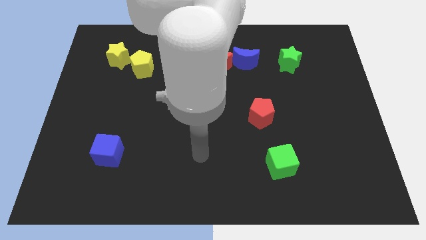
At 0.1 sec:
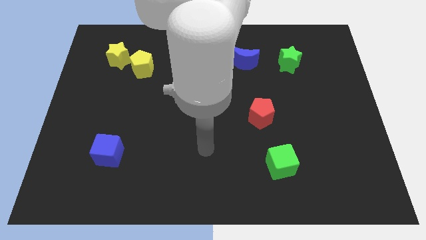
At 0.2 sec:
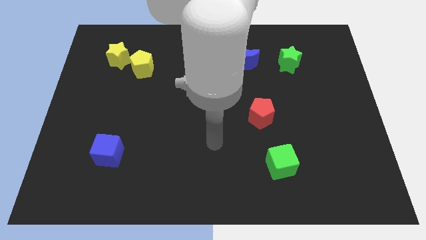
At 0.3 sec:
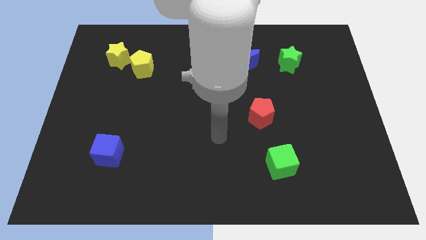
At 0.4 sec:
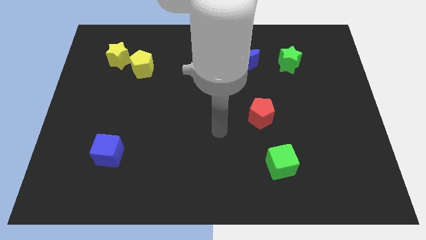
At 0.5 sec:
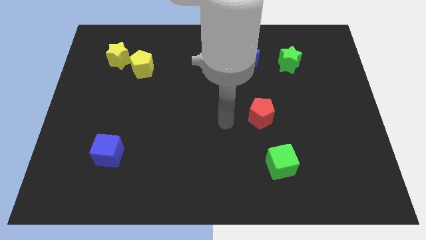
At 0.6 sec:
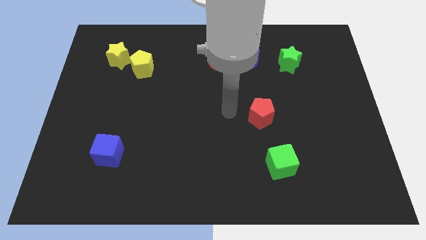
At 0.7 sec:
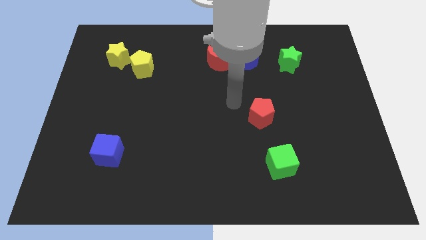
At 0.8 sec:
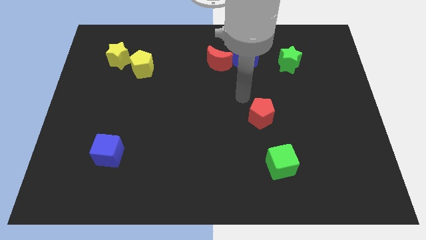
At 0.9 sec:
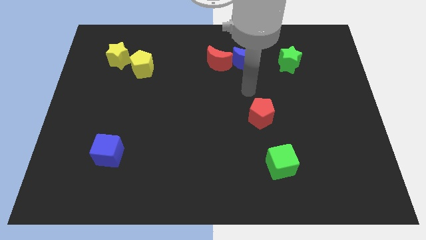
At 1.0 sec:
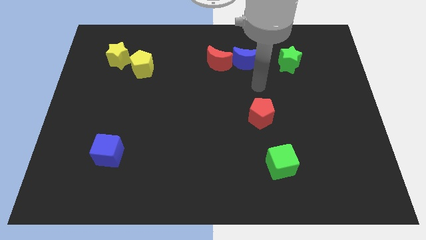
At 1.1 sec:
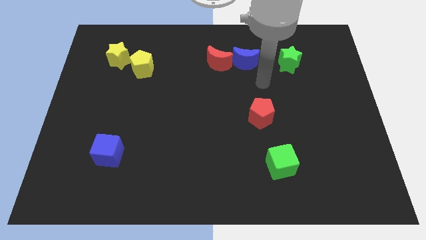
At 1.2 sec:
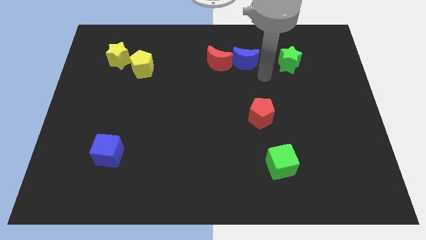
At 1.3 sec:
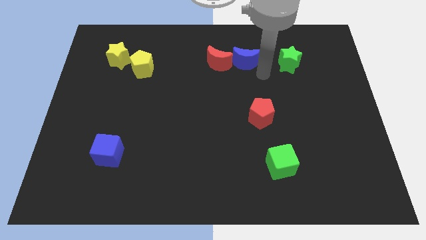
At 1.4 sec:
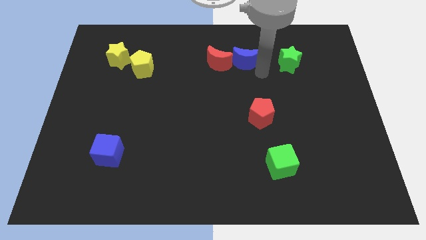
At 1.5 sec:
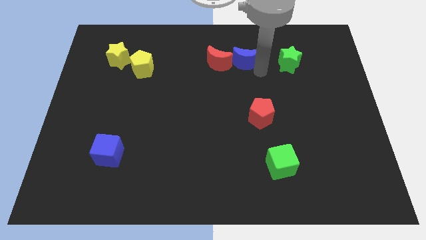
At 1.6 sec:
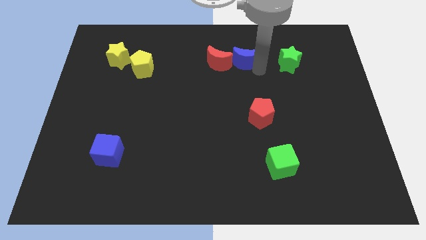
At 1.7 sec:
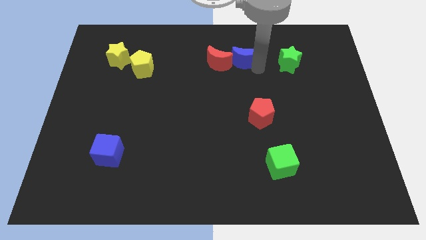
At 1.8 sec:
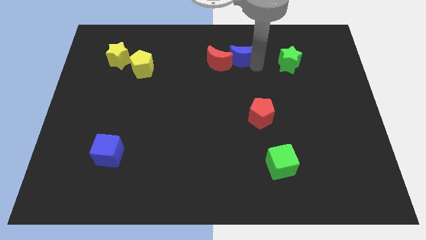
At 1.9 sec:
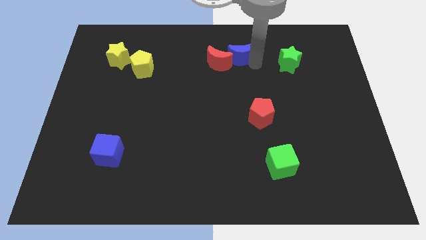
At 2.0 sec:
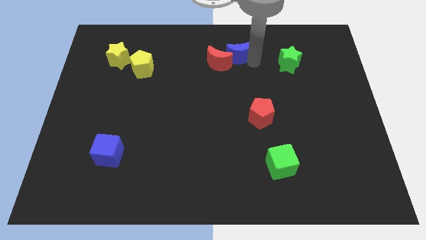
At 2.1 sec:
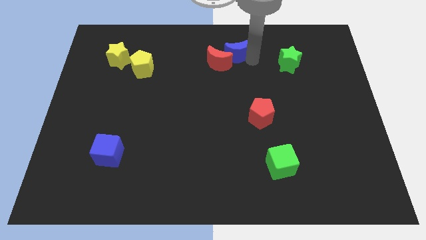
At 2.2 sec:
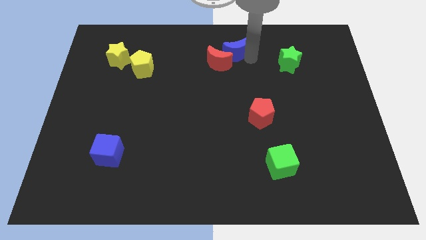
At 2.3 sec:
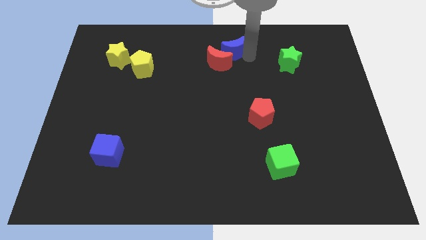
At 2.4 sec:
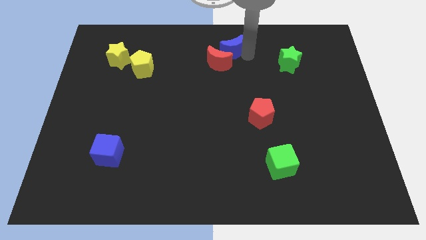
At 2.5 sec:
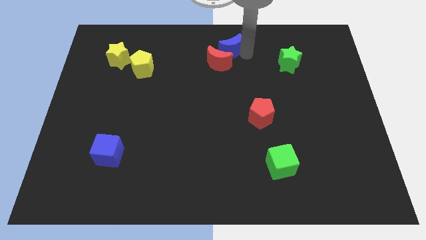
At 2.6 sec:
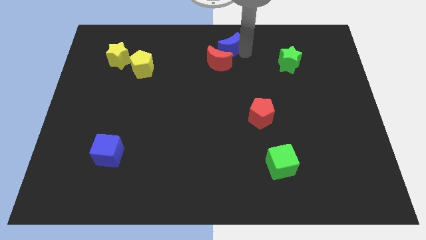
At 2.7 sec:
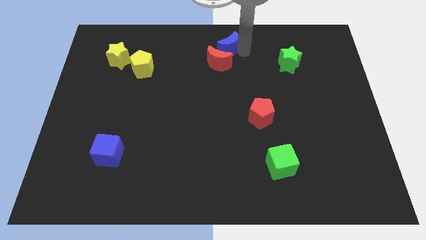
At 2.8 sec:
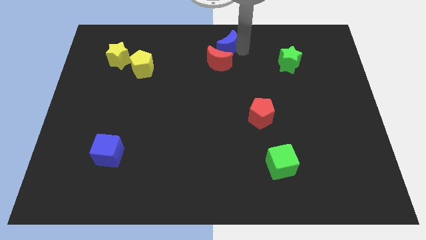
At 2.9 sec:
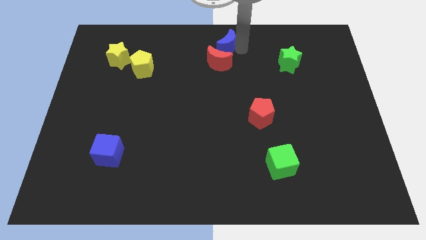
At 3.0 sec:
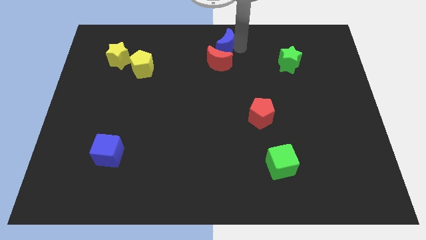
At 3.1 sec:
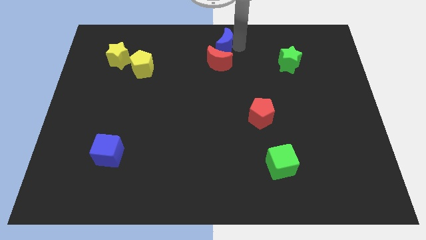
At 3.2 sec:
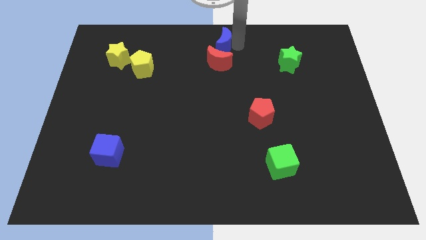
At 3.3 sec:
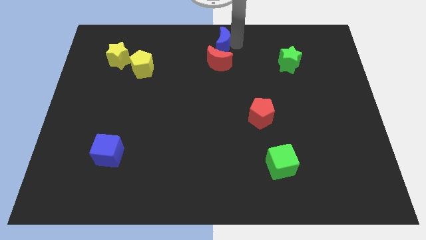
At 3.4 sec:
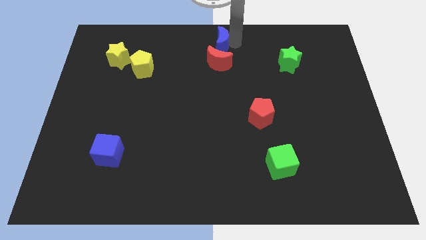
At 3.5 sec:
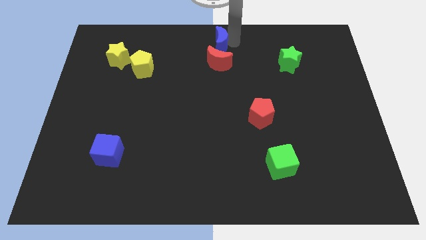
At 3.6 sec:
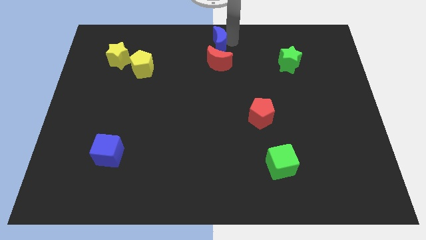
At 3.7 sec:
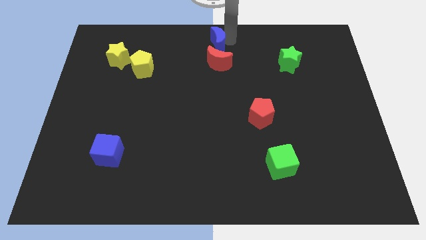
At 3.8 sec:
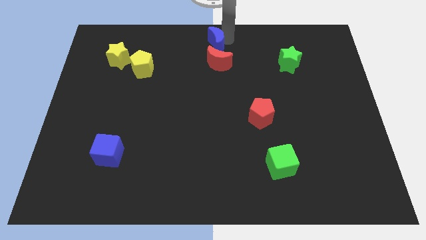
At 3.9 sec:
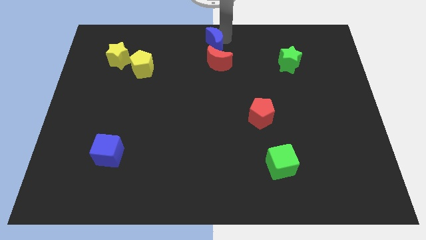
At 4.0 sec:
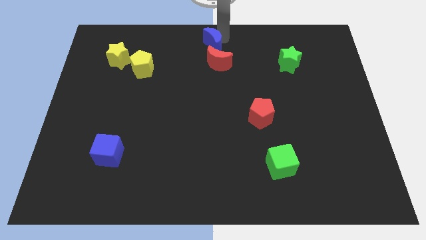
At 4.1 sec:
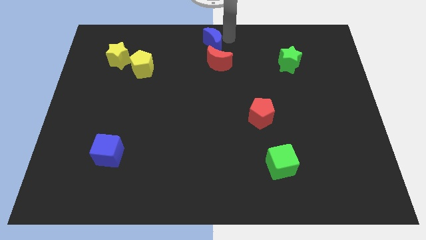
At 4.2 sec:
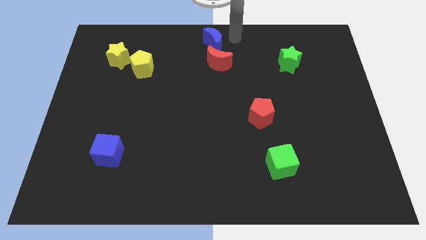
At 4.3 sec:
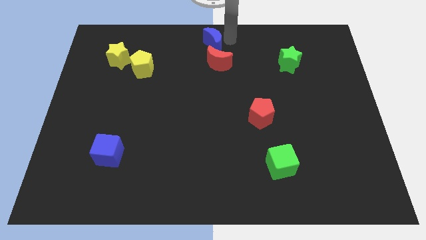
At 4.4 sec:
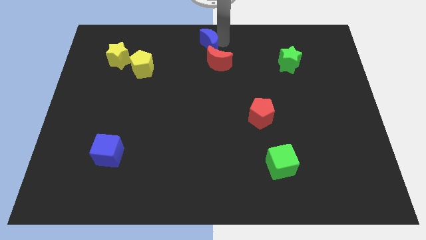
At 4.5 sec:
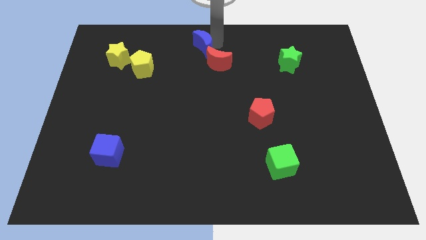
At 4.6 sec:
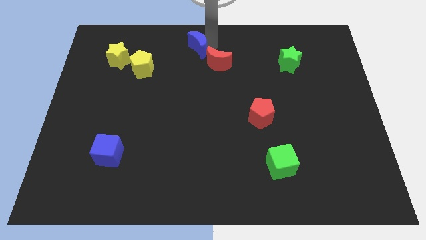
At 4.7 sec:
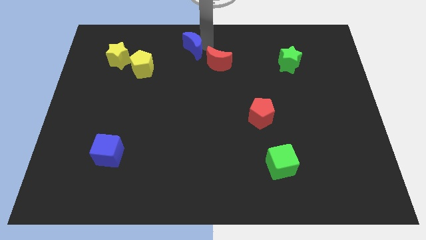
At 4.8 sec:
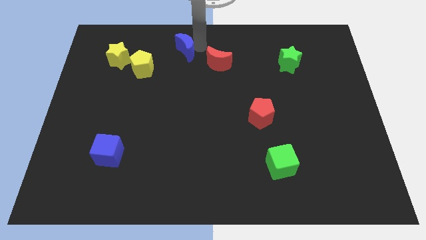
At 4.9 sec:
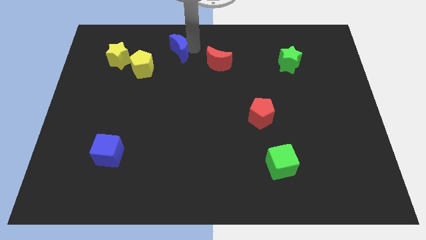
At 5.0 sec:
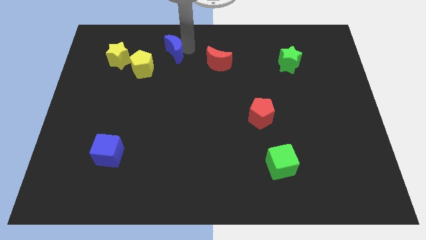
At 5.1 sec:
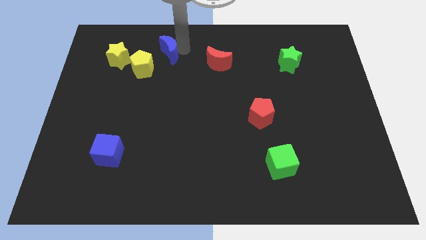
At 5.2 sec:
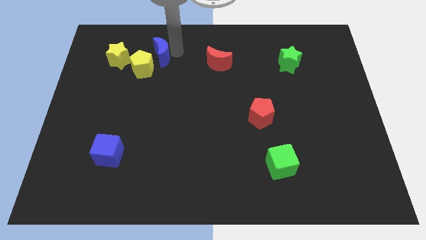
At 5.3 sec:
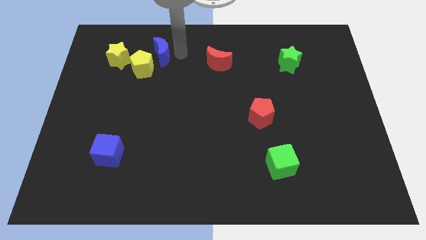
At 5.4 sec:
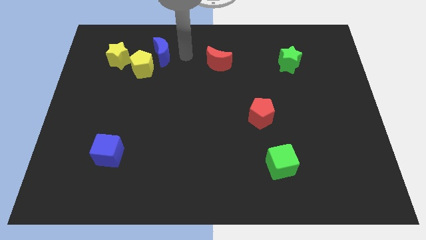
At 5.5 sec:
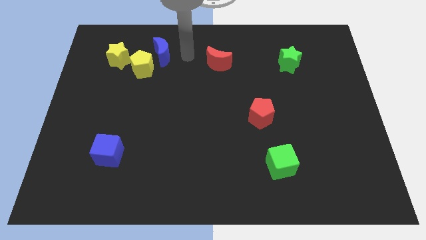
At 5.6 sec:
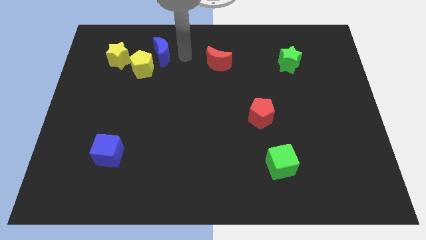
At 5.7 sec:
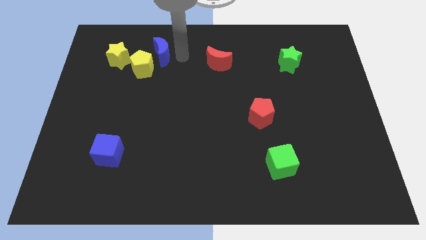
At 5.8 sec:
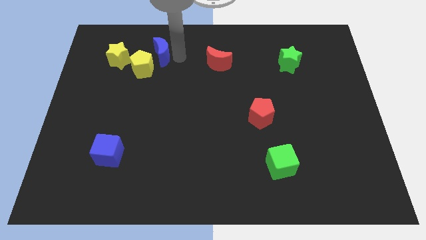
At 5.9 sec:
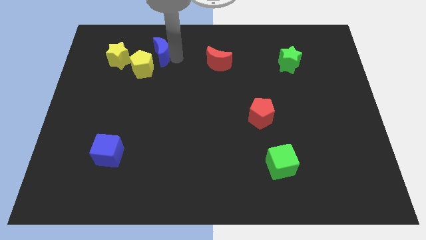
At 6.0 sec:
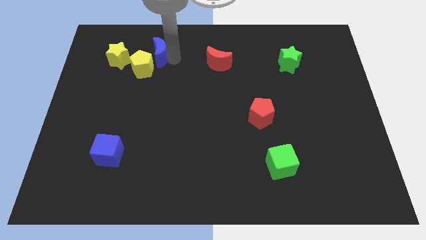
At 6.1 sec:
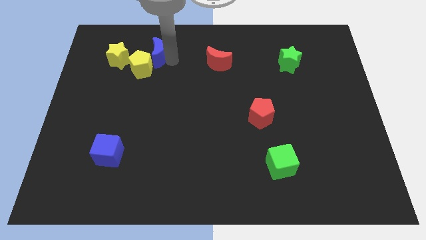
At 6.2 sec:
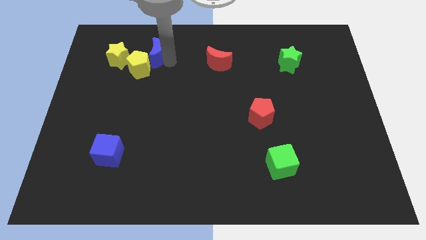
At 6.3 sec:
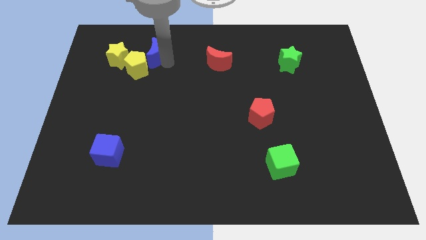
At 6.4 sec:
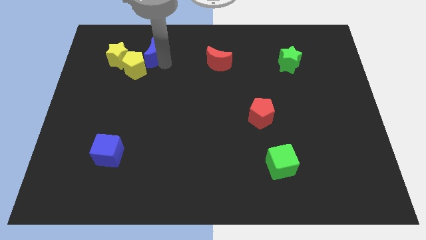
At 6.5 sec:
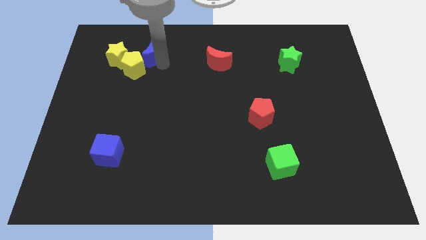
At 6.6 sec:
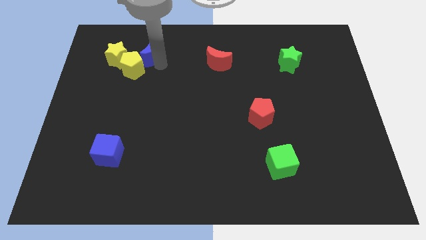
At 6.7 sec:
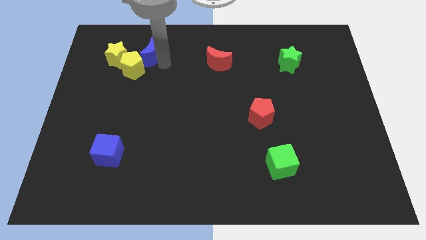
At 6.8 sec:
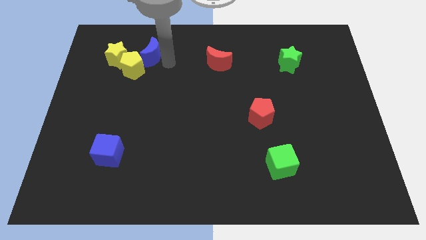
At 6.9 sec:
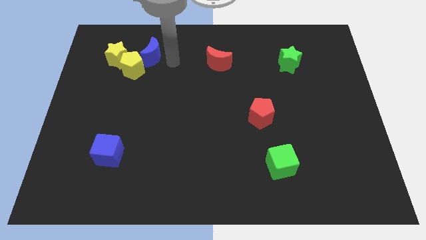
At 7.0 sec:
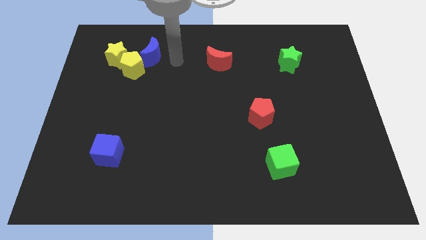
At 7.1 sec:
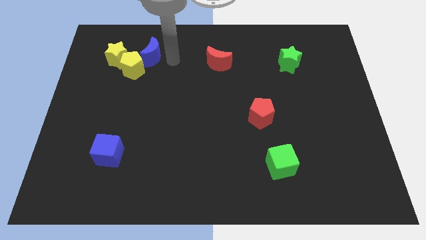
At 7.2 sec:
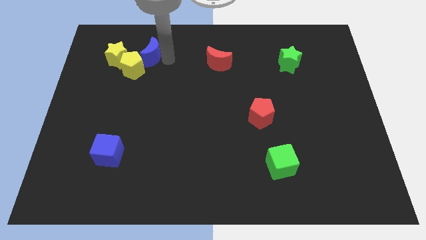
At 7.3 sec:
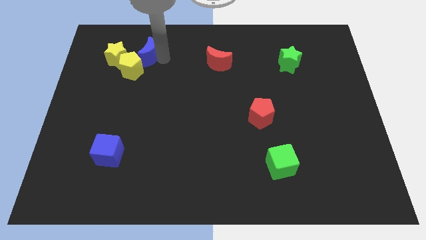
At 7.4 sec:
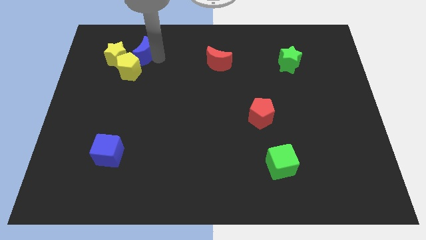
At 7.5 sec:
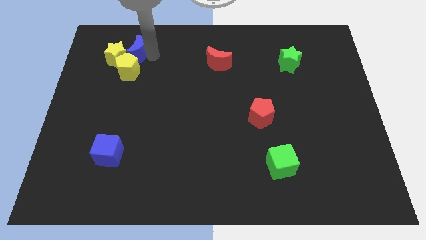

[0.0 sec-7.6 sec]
slide the blue moon close to the yellow star

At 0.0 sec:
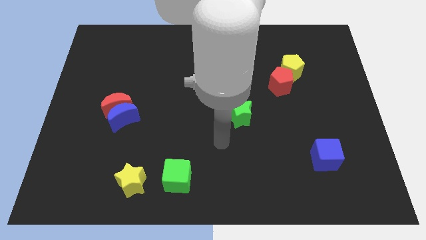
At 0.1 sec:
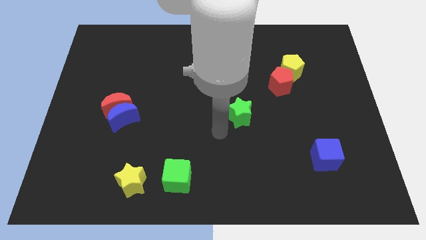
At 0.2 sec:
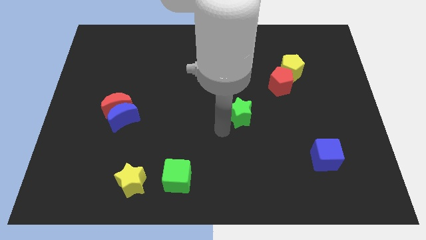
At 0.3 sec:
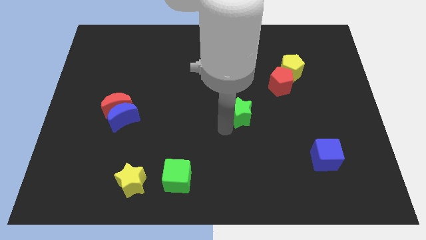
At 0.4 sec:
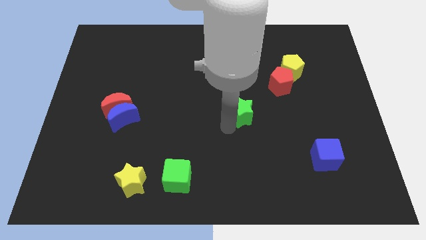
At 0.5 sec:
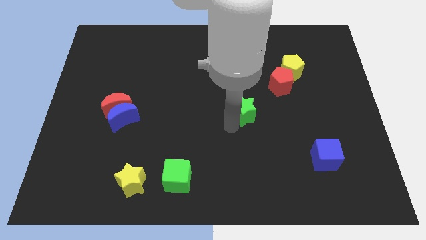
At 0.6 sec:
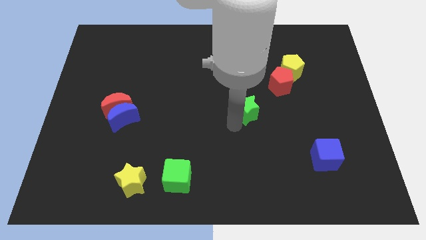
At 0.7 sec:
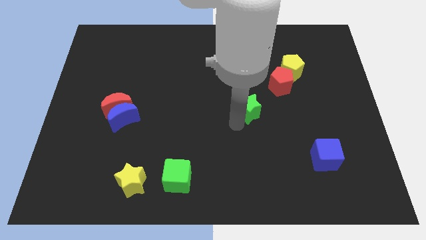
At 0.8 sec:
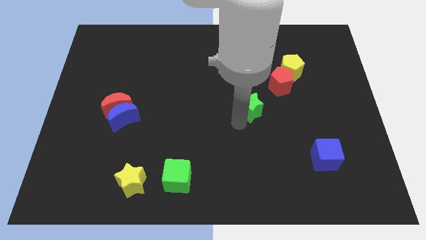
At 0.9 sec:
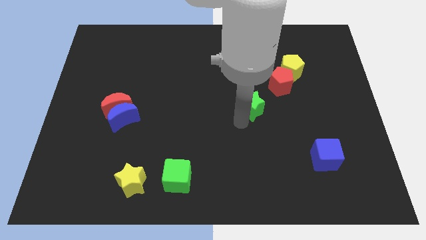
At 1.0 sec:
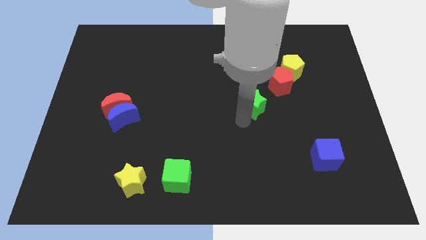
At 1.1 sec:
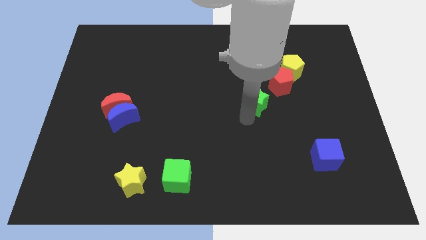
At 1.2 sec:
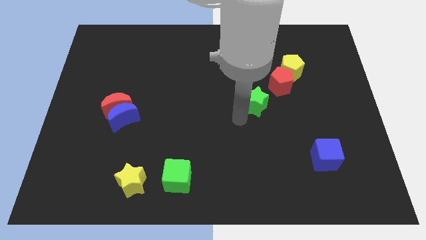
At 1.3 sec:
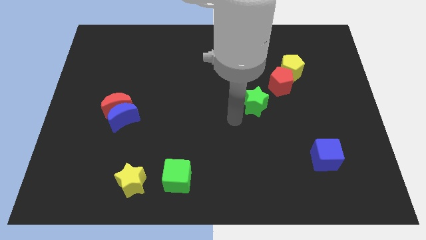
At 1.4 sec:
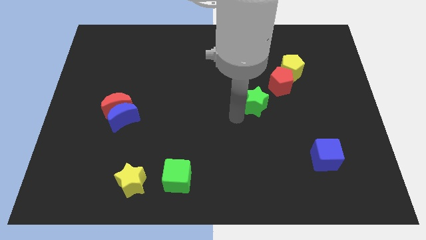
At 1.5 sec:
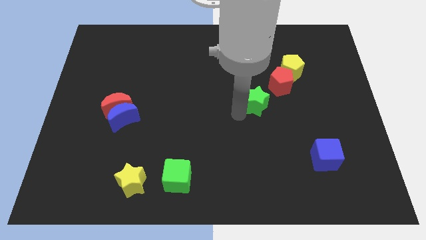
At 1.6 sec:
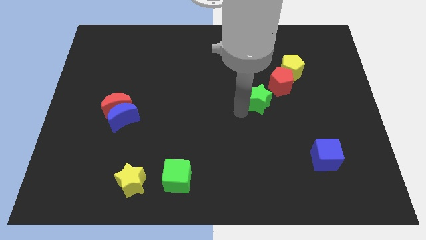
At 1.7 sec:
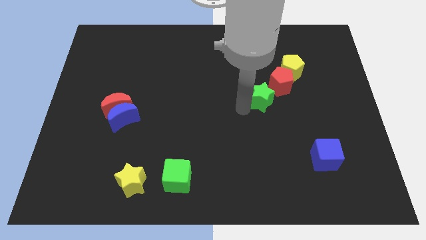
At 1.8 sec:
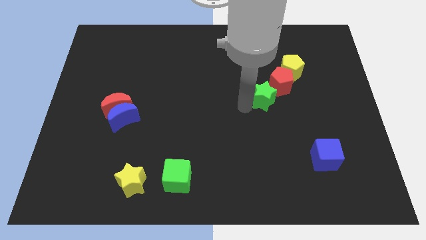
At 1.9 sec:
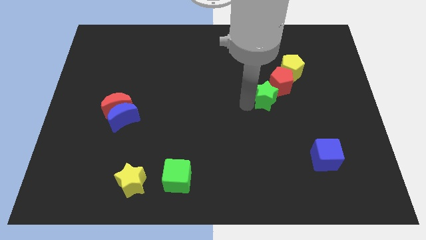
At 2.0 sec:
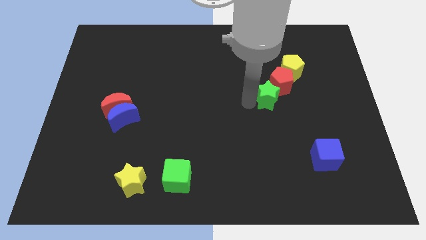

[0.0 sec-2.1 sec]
push the green star towards the red pentagon
